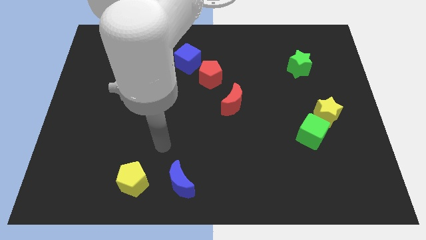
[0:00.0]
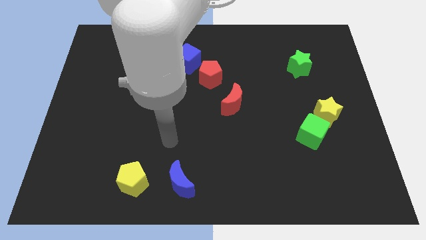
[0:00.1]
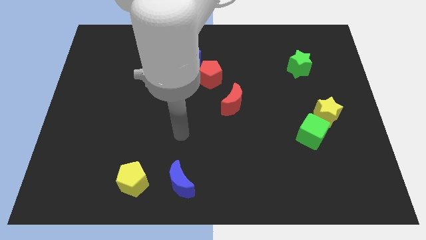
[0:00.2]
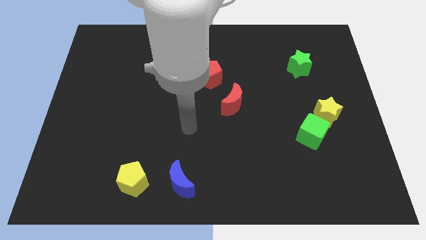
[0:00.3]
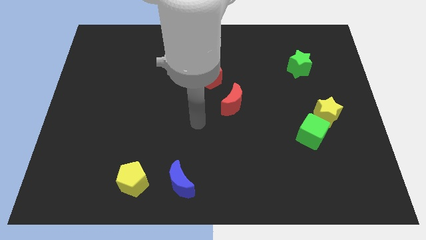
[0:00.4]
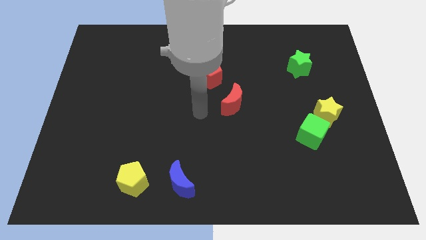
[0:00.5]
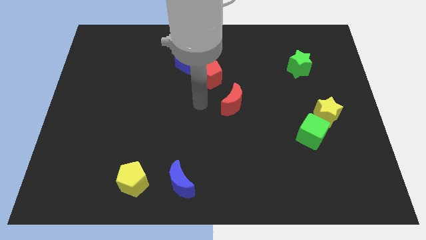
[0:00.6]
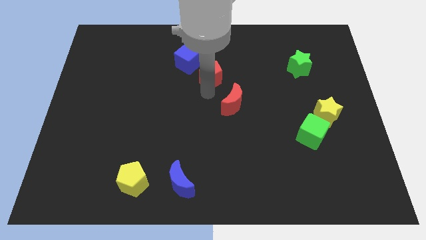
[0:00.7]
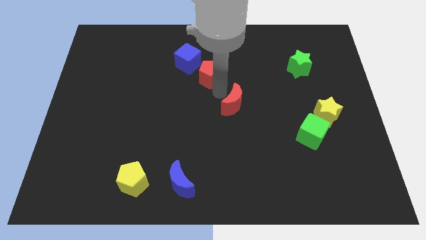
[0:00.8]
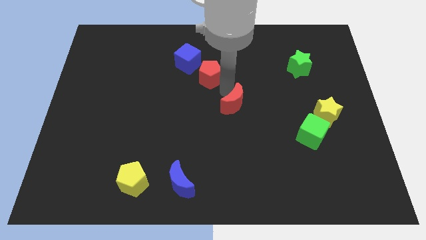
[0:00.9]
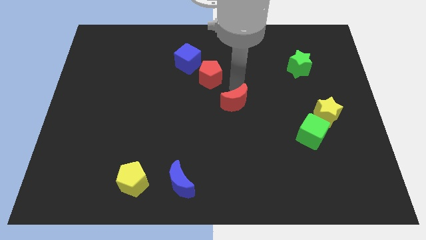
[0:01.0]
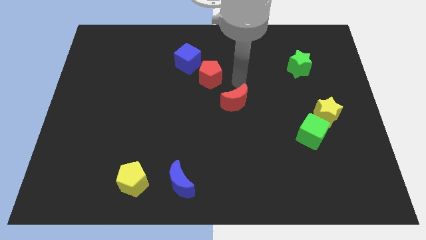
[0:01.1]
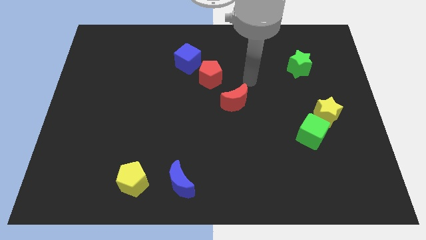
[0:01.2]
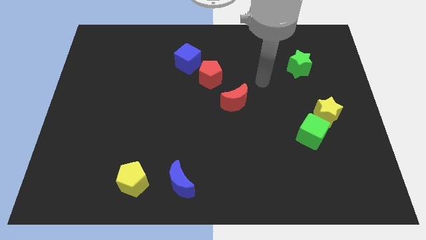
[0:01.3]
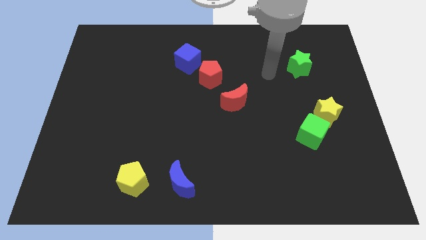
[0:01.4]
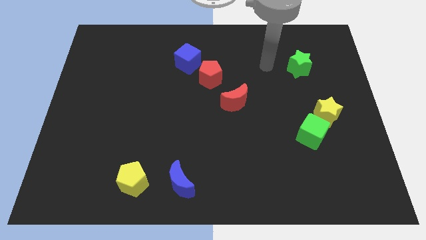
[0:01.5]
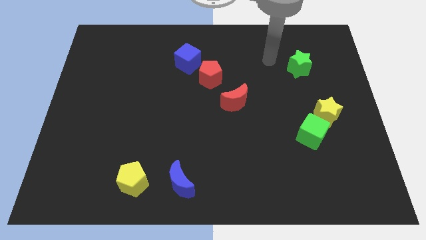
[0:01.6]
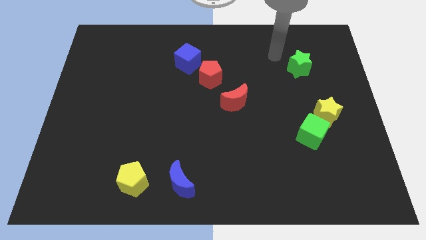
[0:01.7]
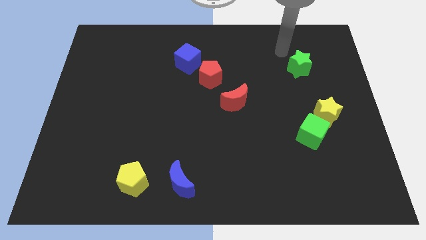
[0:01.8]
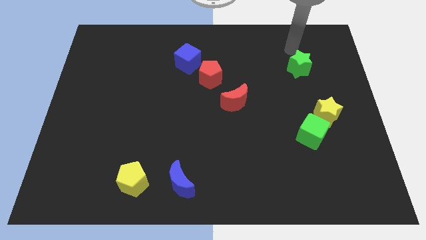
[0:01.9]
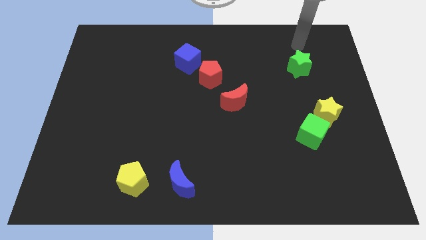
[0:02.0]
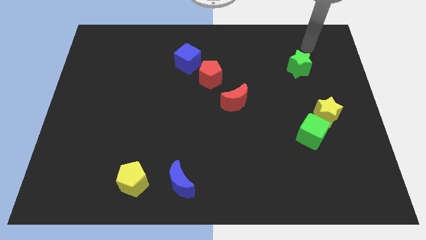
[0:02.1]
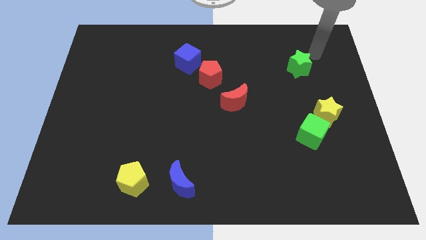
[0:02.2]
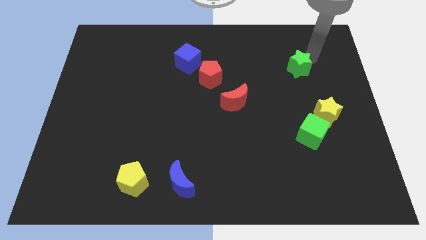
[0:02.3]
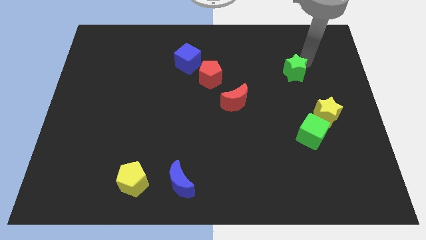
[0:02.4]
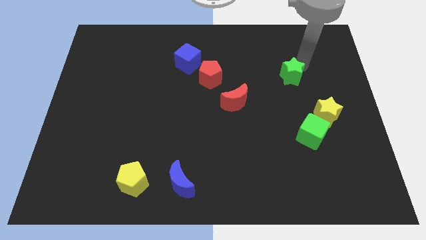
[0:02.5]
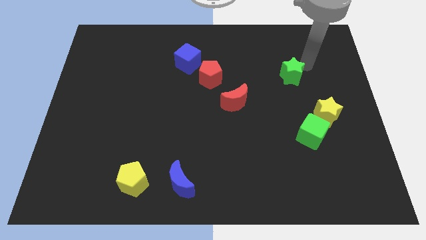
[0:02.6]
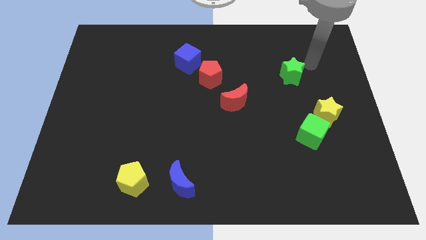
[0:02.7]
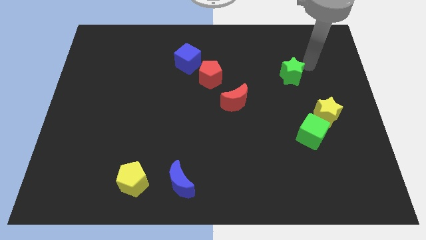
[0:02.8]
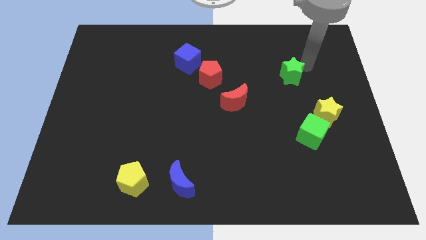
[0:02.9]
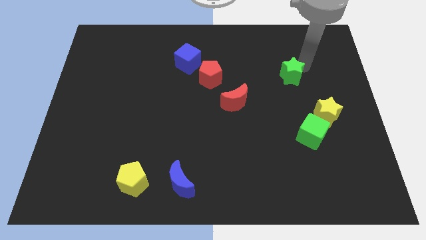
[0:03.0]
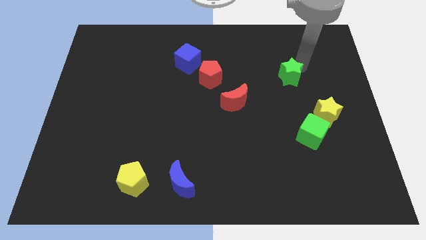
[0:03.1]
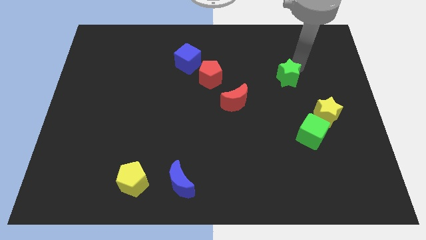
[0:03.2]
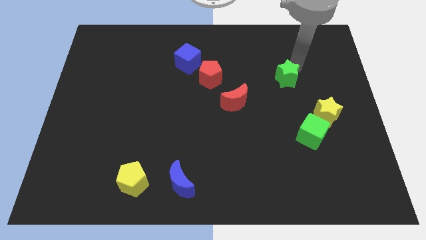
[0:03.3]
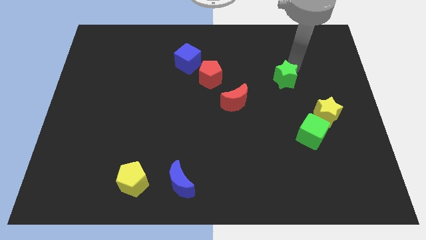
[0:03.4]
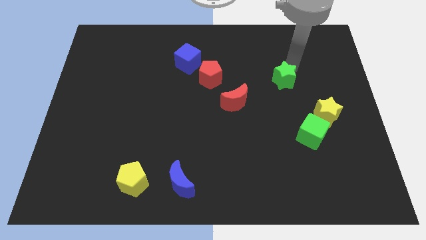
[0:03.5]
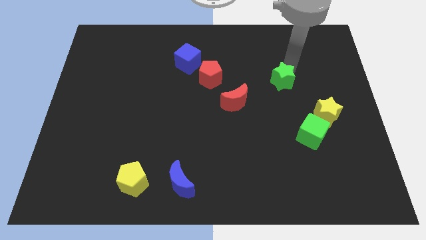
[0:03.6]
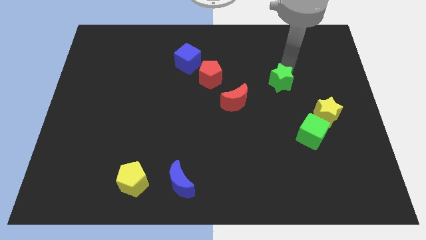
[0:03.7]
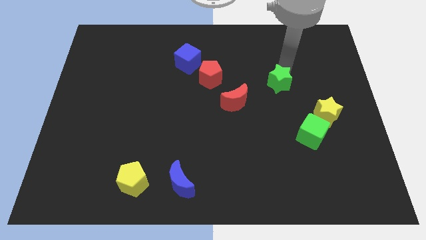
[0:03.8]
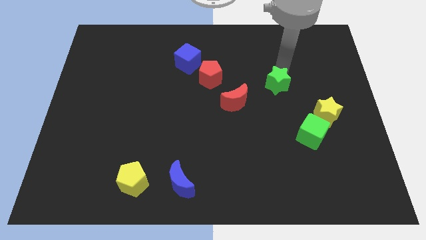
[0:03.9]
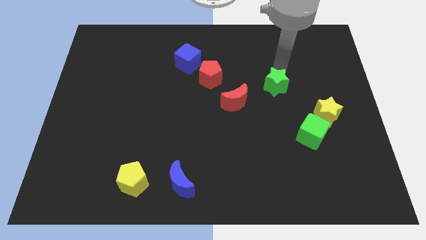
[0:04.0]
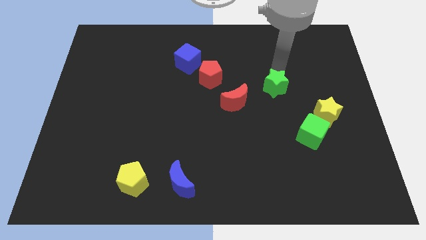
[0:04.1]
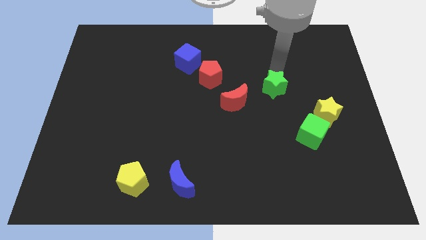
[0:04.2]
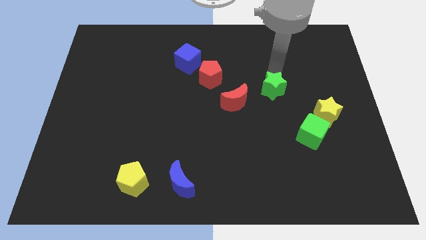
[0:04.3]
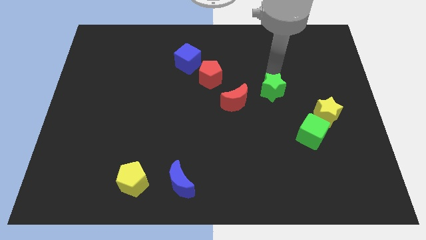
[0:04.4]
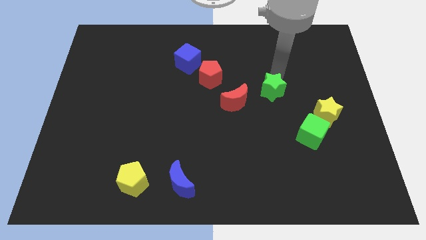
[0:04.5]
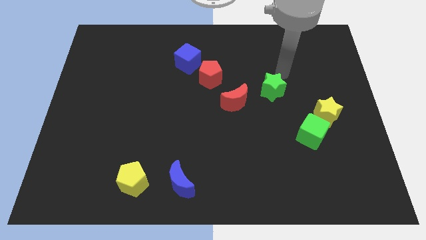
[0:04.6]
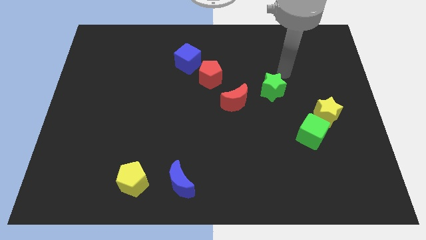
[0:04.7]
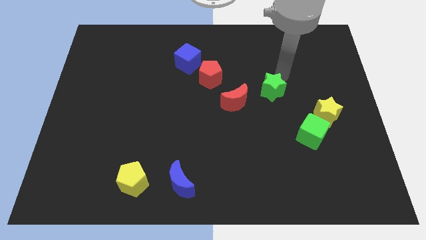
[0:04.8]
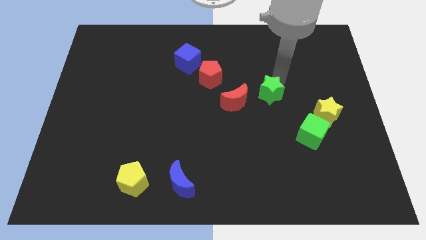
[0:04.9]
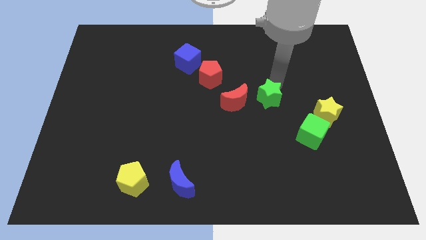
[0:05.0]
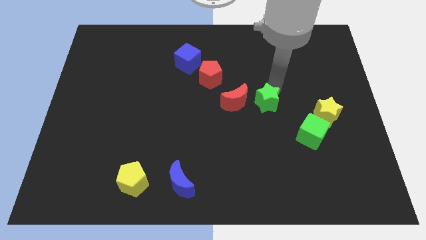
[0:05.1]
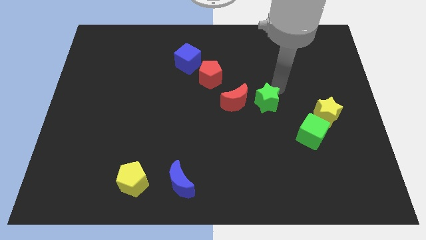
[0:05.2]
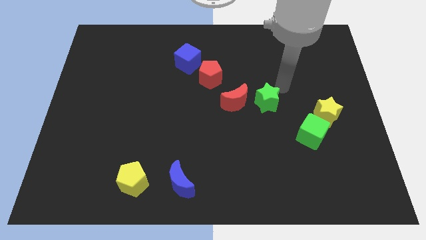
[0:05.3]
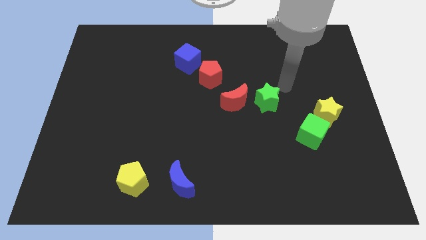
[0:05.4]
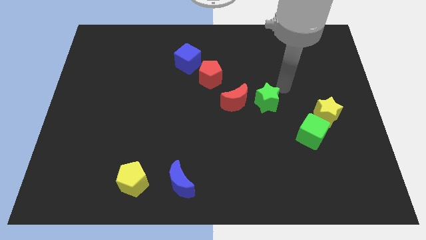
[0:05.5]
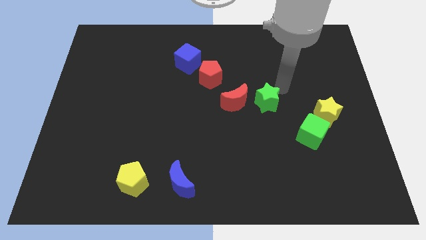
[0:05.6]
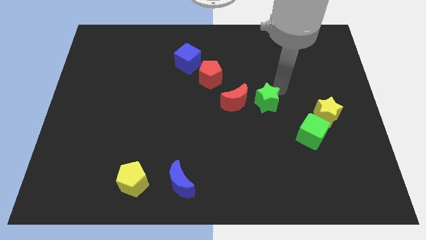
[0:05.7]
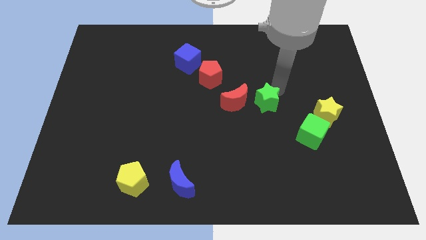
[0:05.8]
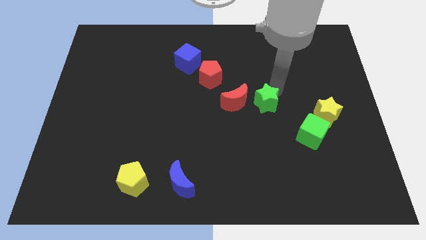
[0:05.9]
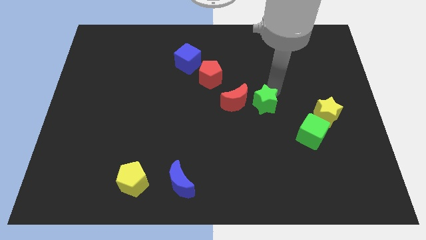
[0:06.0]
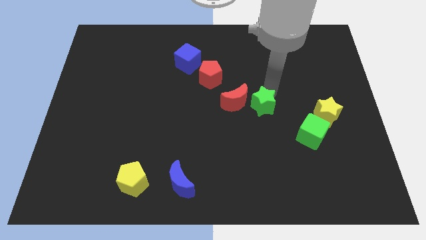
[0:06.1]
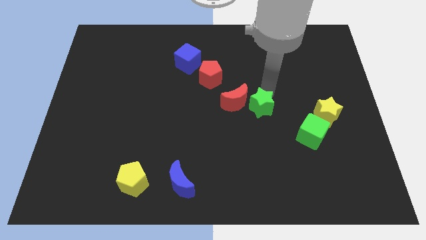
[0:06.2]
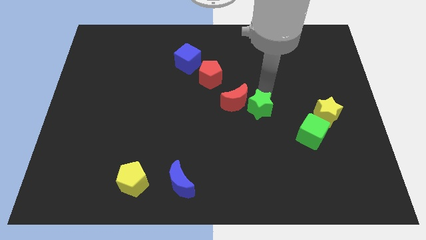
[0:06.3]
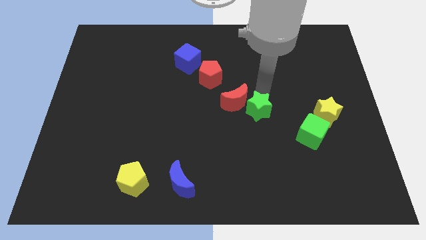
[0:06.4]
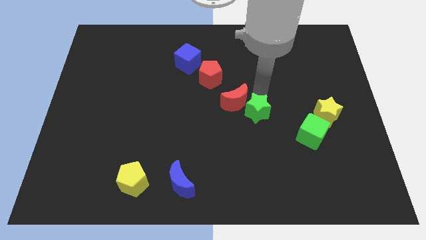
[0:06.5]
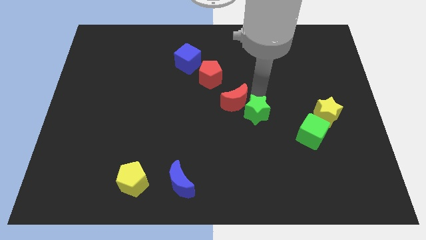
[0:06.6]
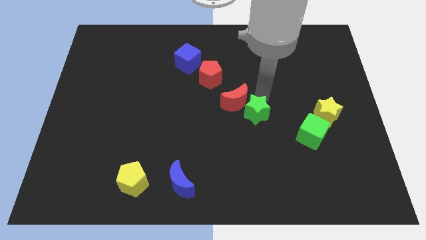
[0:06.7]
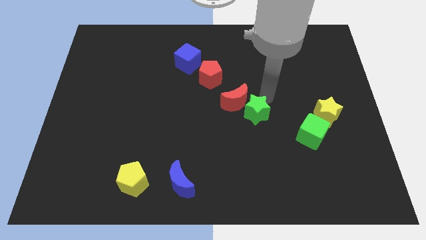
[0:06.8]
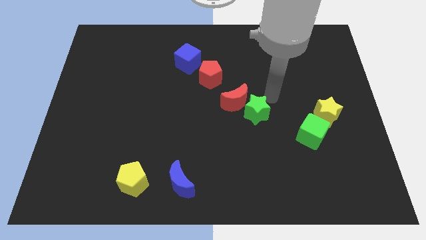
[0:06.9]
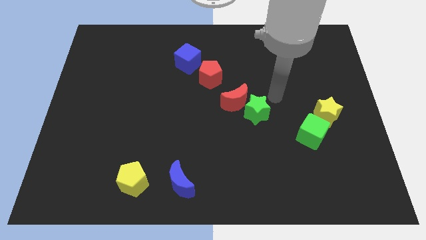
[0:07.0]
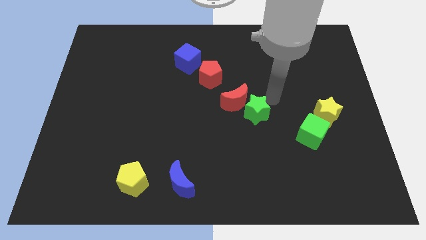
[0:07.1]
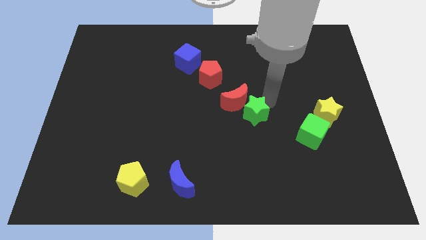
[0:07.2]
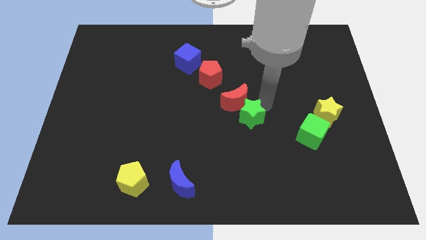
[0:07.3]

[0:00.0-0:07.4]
move the green star down and left diagonally

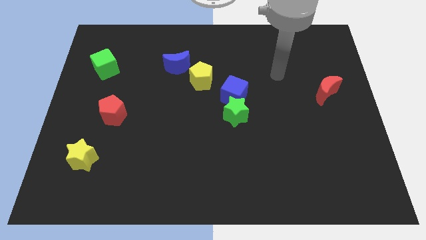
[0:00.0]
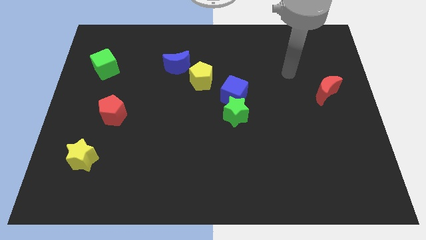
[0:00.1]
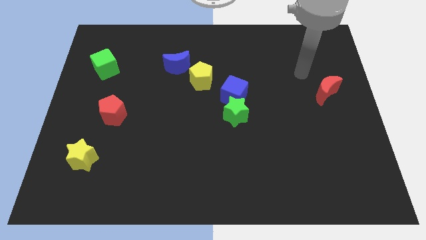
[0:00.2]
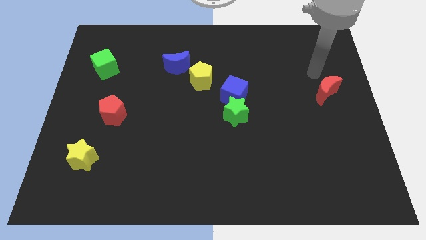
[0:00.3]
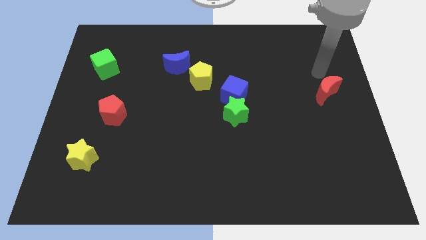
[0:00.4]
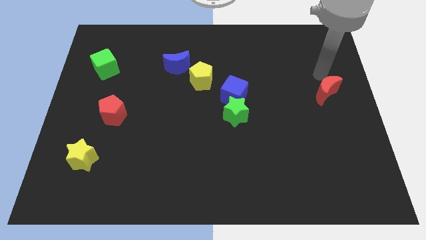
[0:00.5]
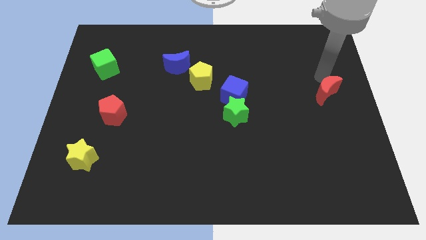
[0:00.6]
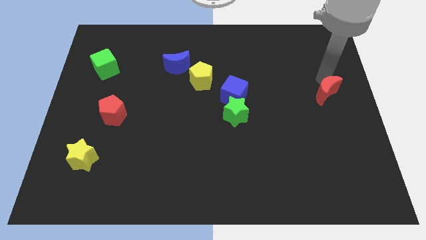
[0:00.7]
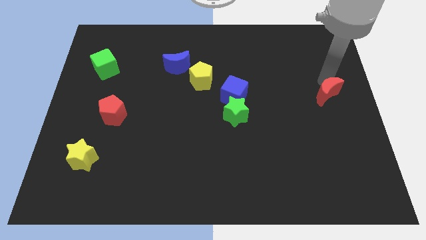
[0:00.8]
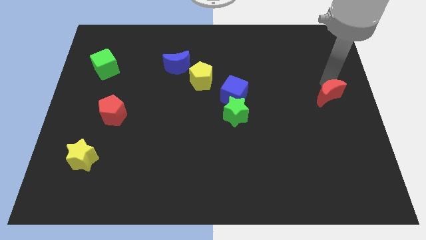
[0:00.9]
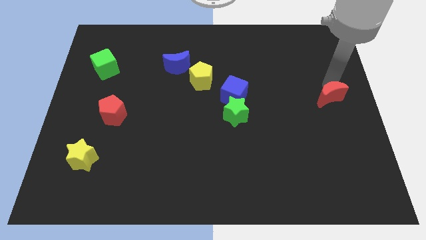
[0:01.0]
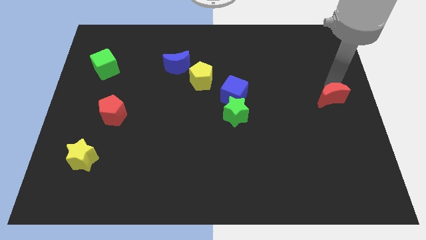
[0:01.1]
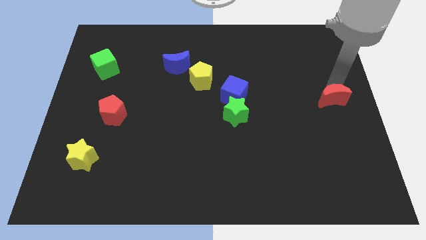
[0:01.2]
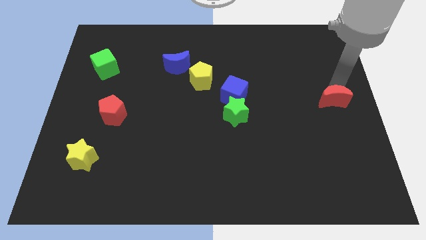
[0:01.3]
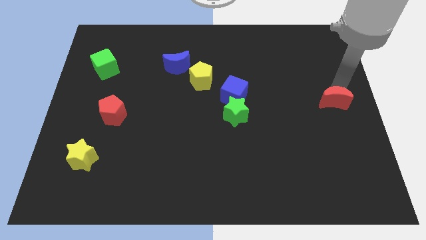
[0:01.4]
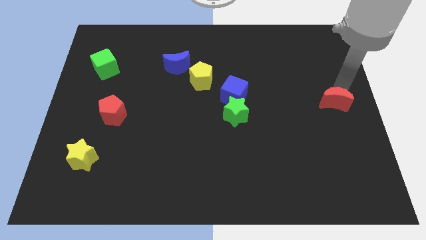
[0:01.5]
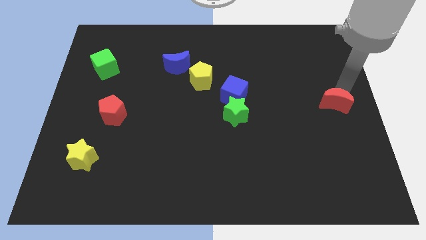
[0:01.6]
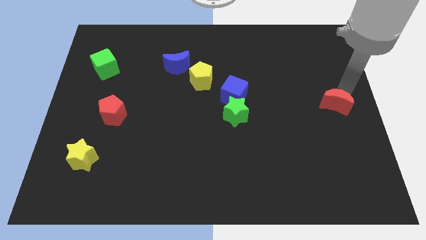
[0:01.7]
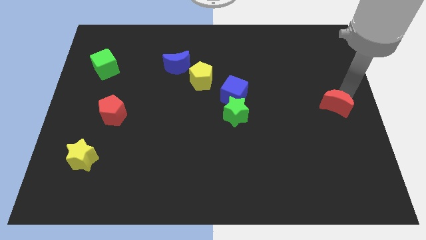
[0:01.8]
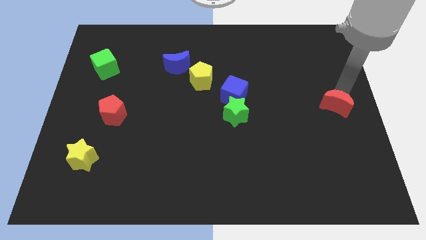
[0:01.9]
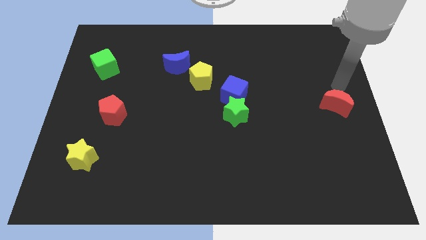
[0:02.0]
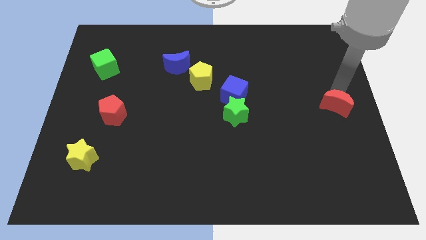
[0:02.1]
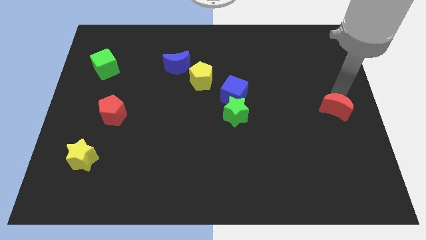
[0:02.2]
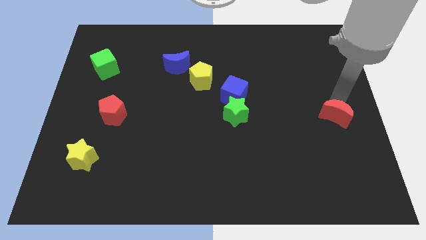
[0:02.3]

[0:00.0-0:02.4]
slightly move the red moon down
